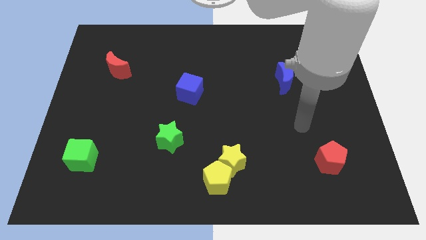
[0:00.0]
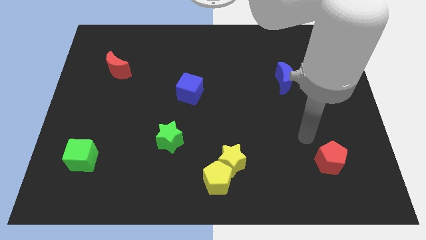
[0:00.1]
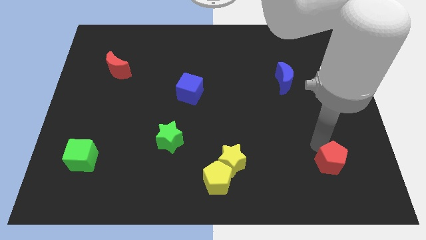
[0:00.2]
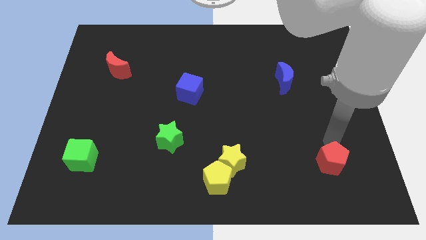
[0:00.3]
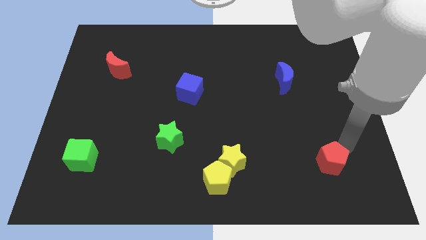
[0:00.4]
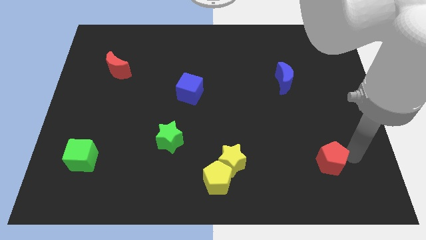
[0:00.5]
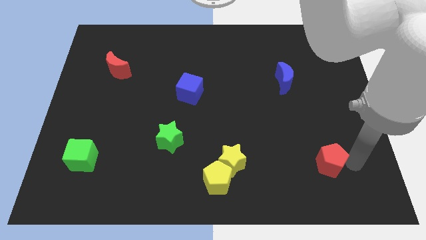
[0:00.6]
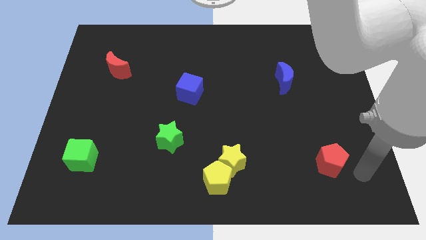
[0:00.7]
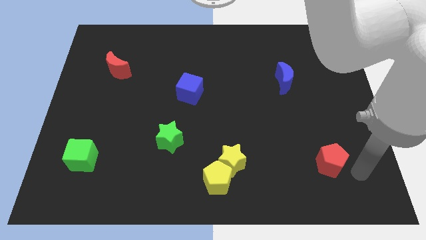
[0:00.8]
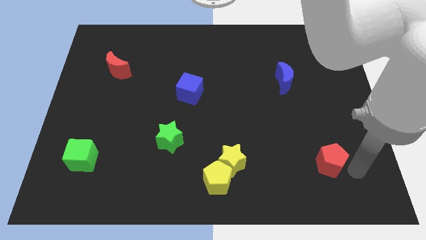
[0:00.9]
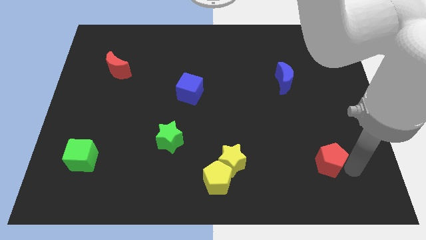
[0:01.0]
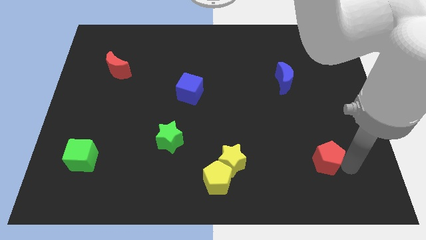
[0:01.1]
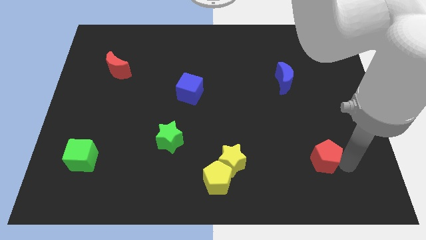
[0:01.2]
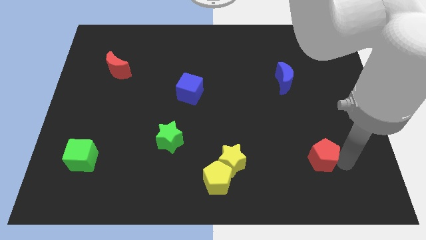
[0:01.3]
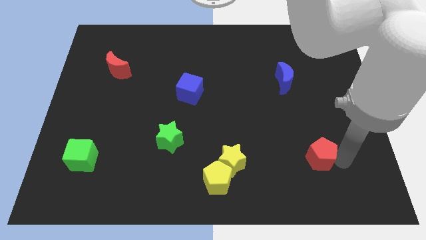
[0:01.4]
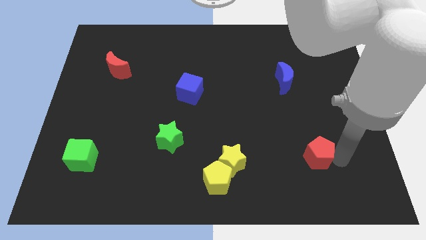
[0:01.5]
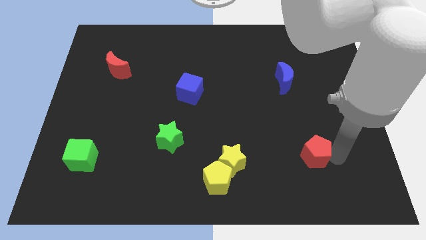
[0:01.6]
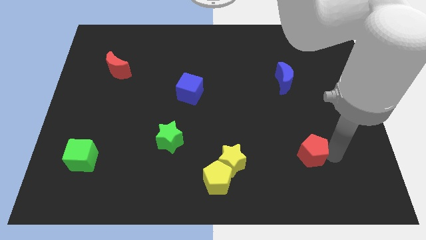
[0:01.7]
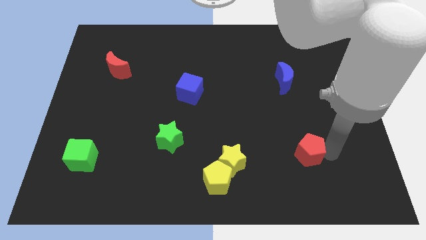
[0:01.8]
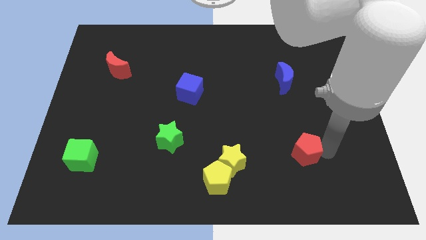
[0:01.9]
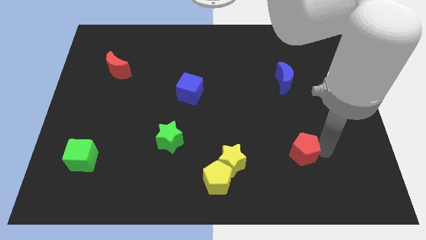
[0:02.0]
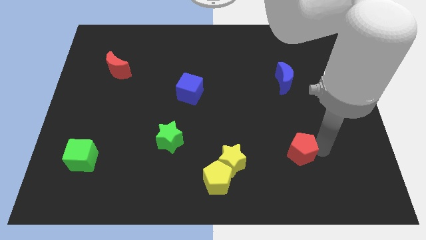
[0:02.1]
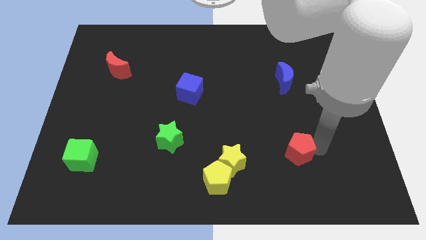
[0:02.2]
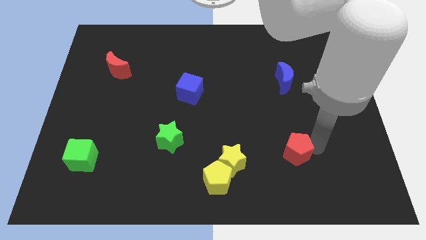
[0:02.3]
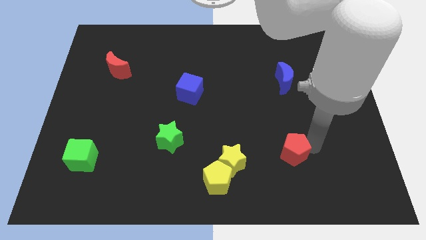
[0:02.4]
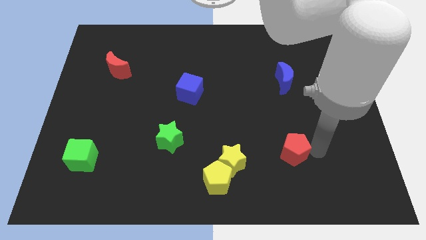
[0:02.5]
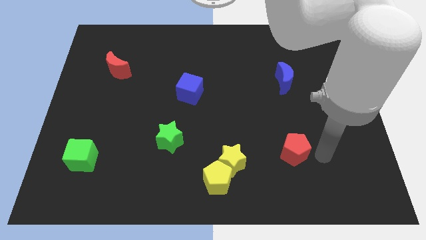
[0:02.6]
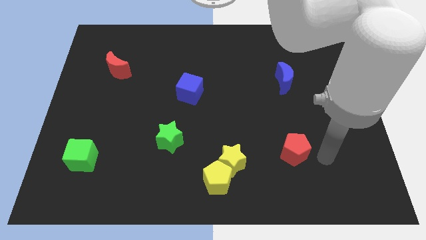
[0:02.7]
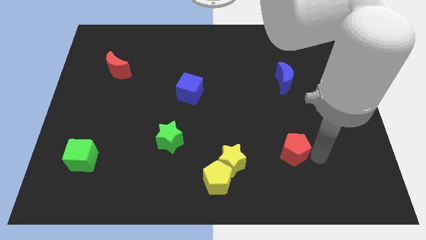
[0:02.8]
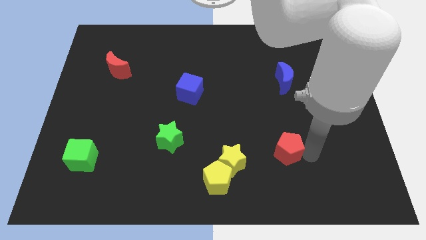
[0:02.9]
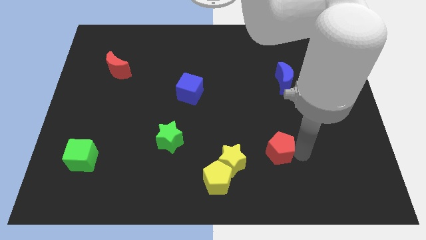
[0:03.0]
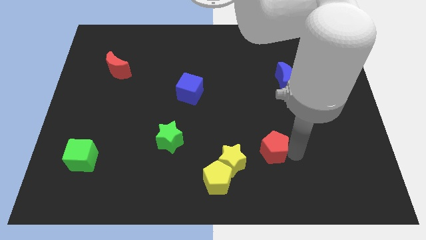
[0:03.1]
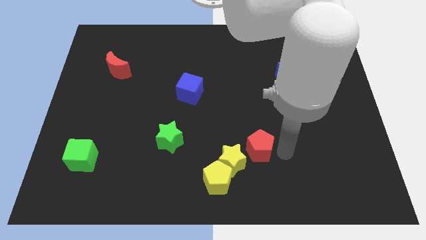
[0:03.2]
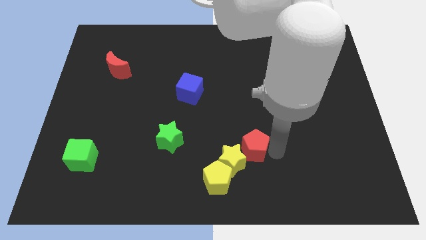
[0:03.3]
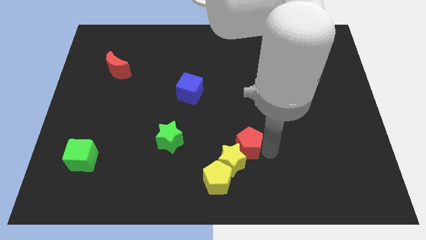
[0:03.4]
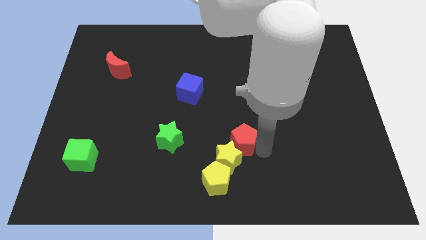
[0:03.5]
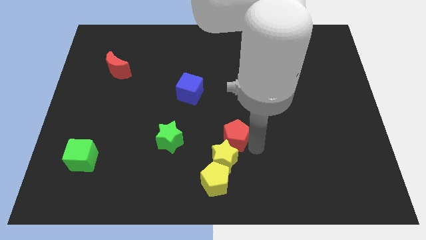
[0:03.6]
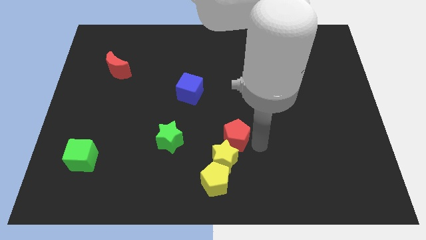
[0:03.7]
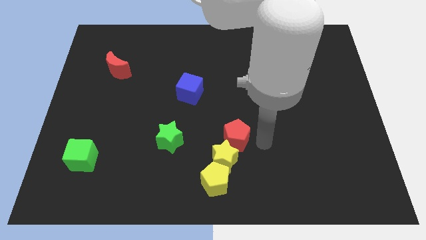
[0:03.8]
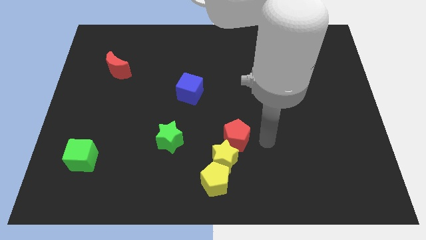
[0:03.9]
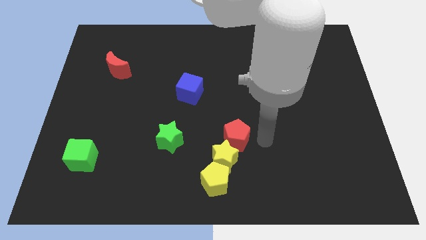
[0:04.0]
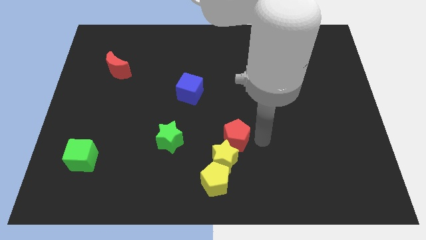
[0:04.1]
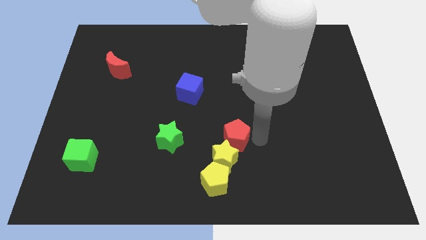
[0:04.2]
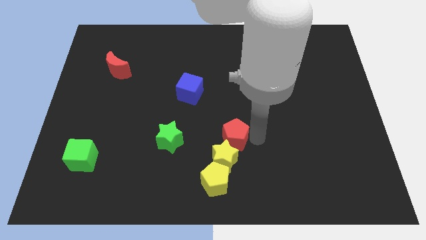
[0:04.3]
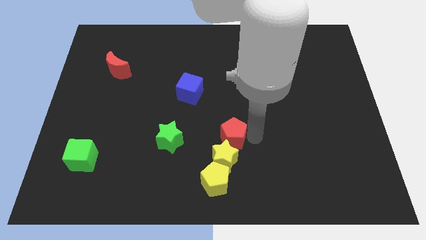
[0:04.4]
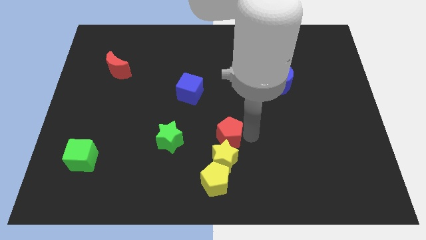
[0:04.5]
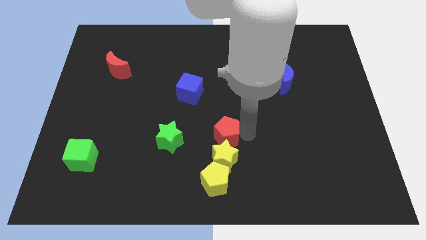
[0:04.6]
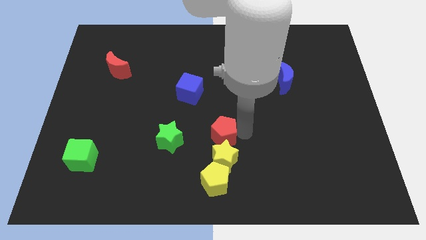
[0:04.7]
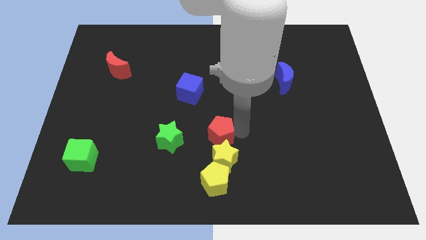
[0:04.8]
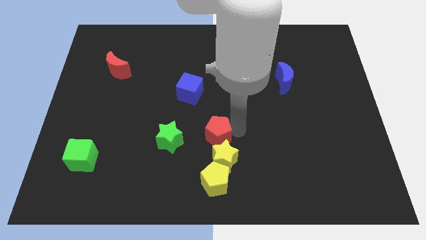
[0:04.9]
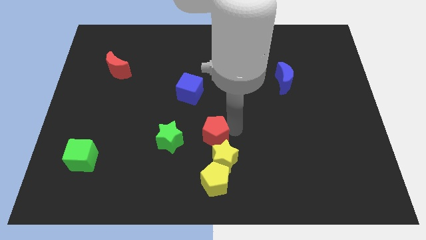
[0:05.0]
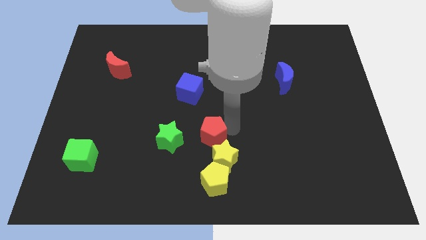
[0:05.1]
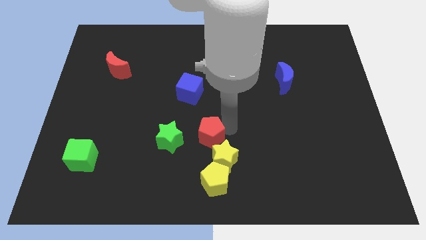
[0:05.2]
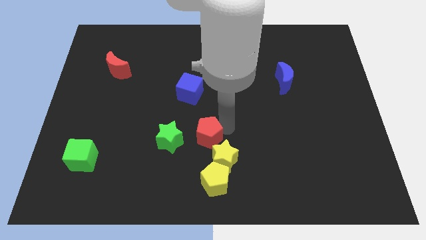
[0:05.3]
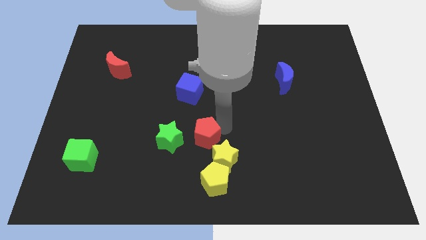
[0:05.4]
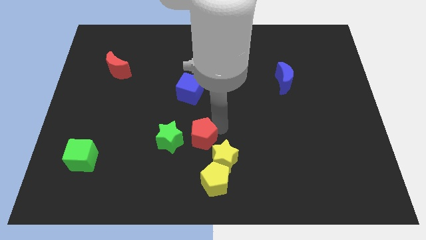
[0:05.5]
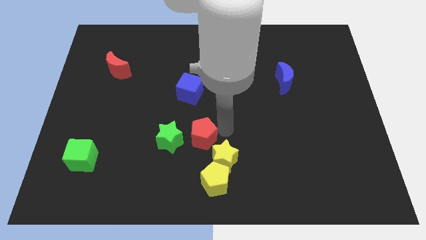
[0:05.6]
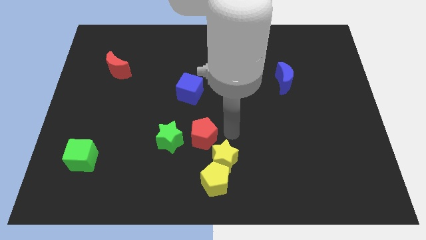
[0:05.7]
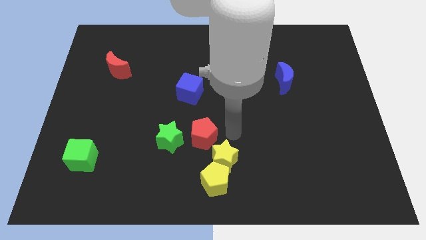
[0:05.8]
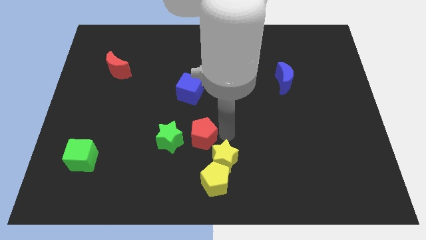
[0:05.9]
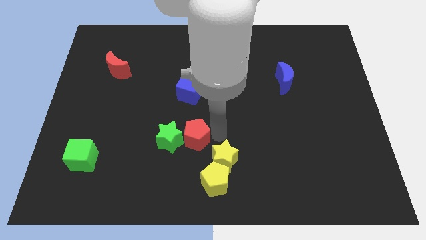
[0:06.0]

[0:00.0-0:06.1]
put the red pentagon close to the green star

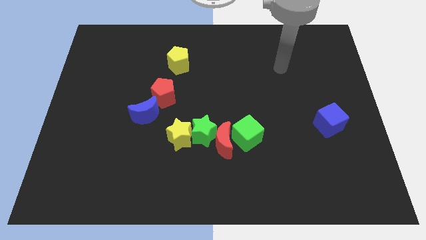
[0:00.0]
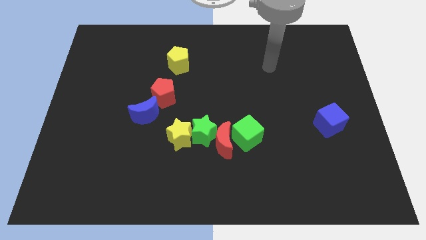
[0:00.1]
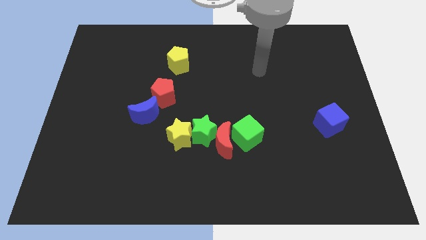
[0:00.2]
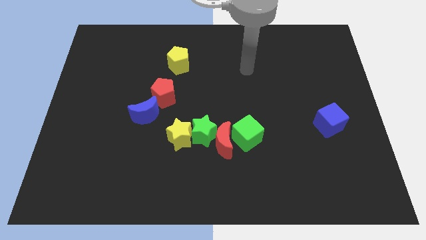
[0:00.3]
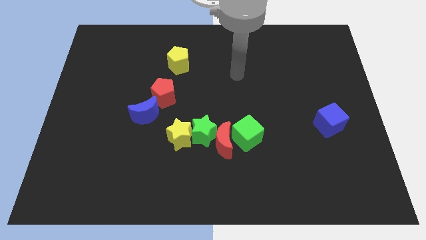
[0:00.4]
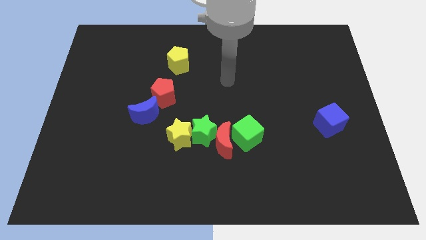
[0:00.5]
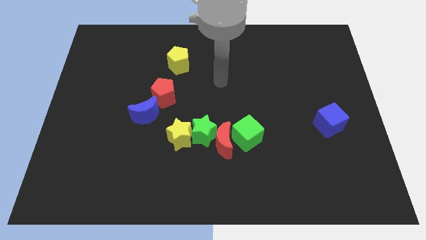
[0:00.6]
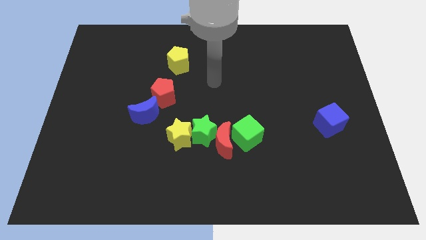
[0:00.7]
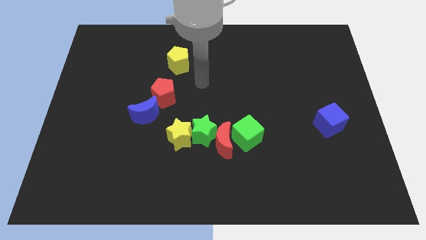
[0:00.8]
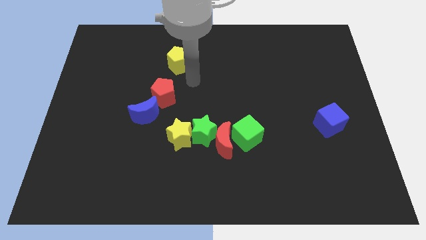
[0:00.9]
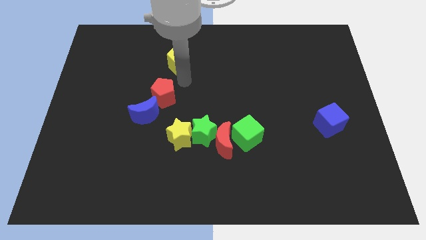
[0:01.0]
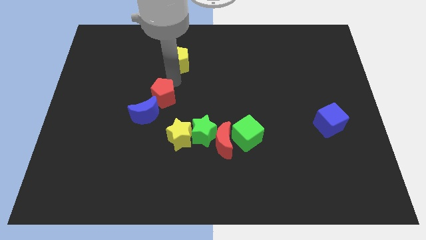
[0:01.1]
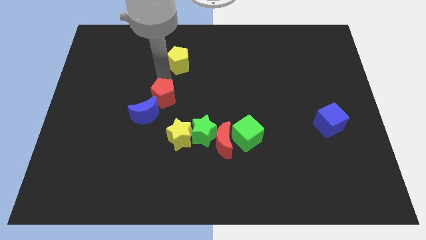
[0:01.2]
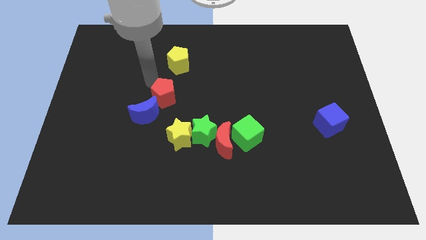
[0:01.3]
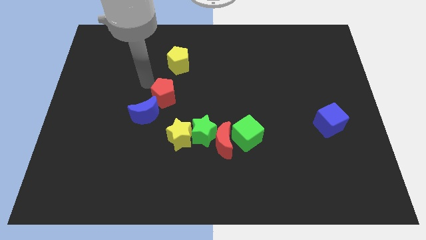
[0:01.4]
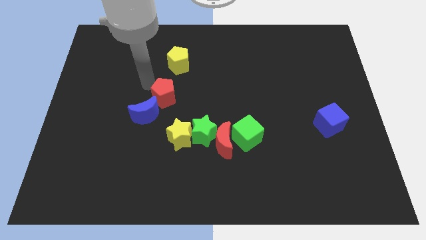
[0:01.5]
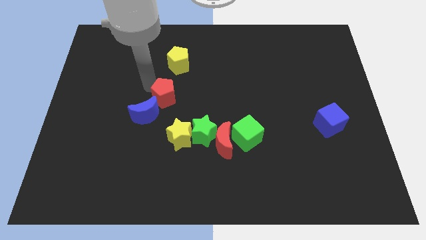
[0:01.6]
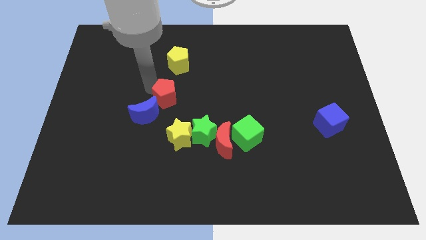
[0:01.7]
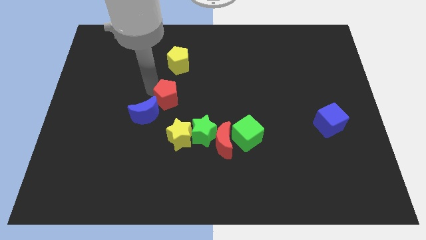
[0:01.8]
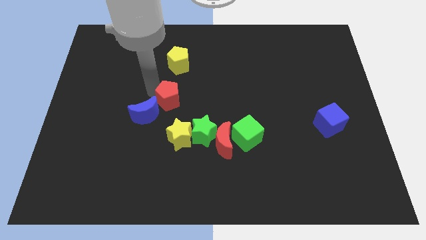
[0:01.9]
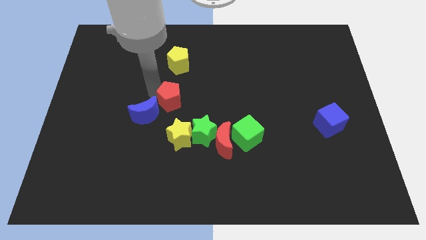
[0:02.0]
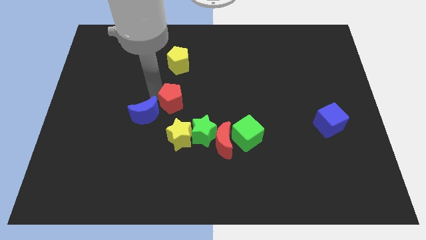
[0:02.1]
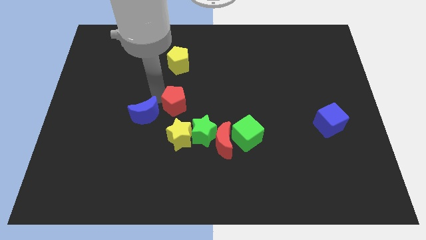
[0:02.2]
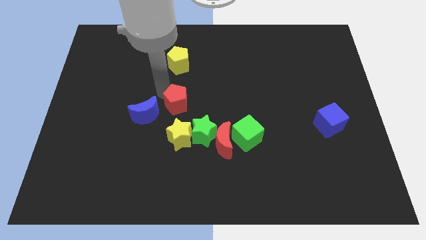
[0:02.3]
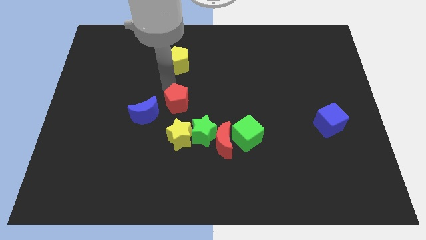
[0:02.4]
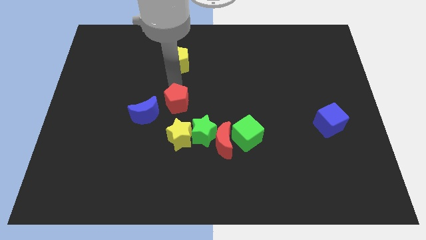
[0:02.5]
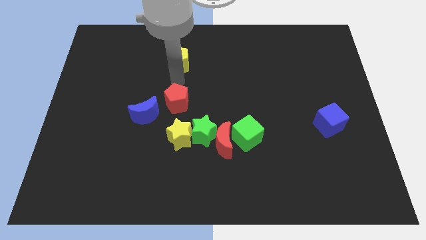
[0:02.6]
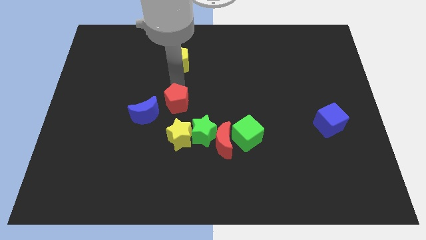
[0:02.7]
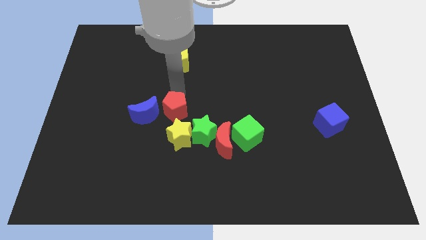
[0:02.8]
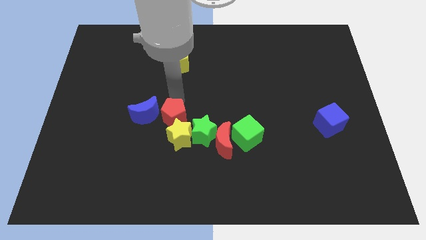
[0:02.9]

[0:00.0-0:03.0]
push the red pentagon close to the yellow star
